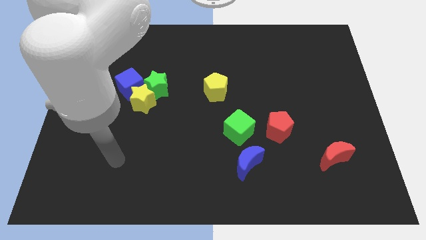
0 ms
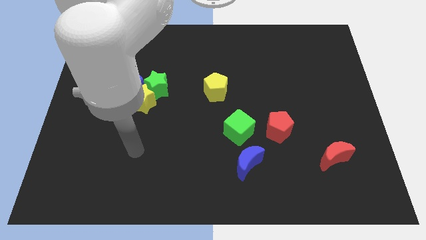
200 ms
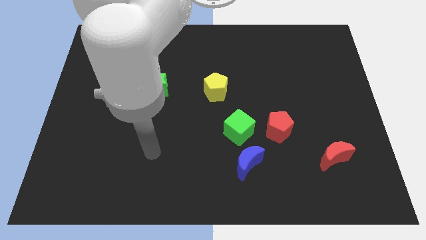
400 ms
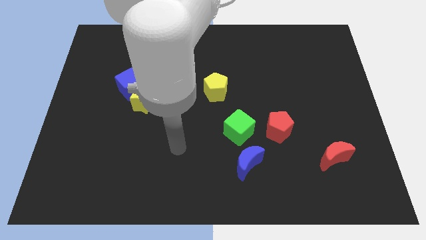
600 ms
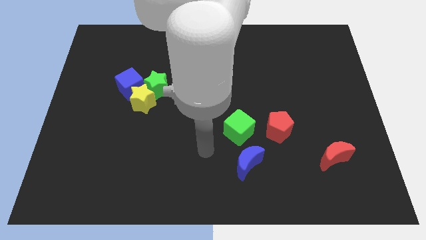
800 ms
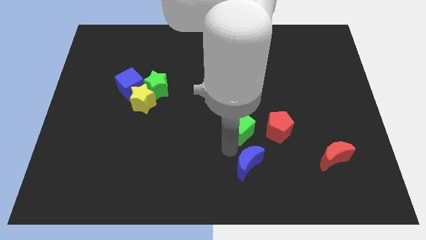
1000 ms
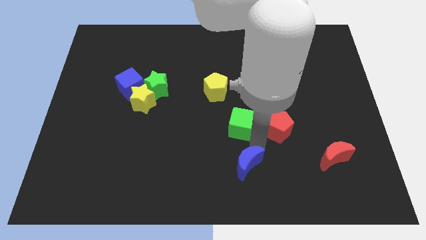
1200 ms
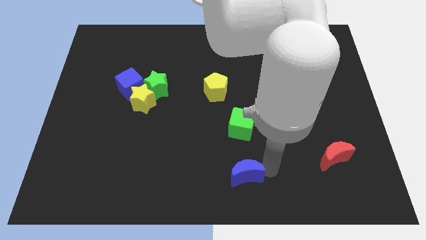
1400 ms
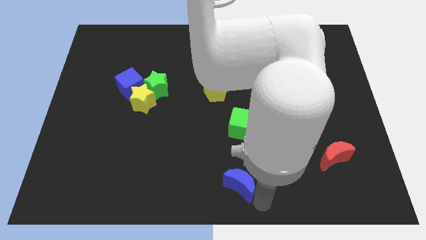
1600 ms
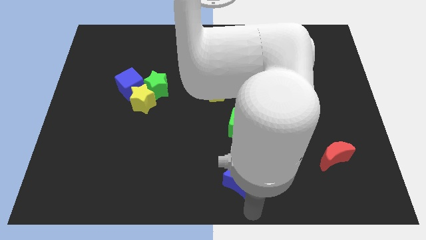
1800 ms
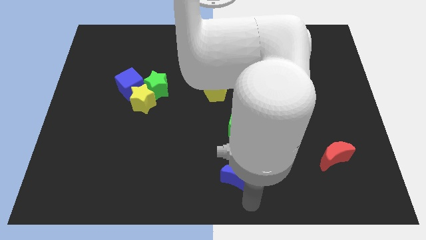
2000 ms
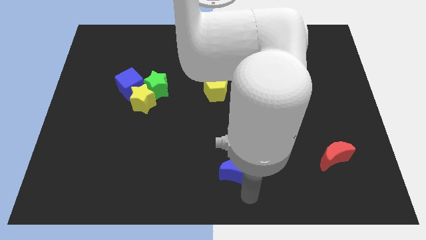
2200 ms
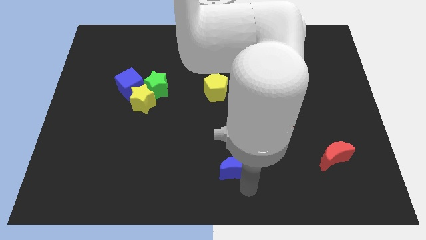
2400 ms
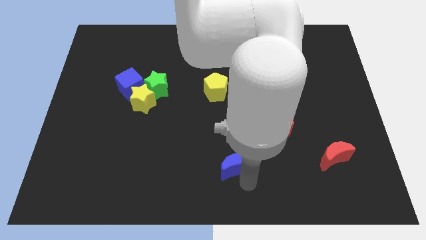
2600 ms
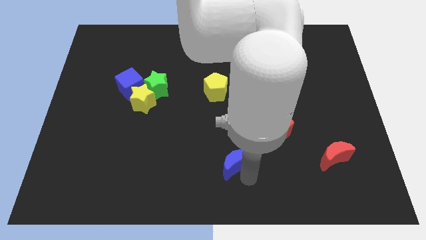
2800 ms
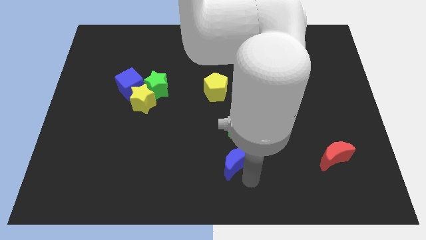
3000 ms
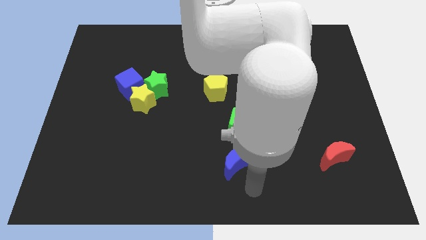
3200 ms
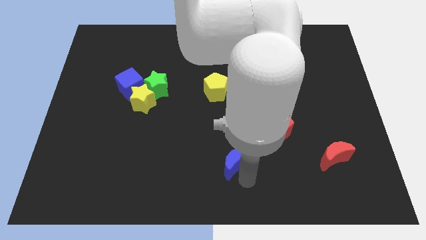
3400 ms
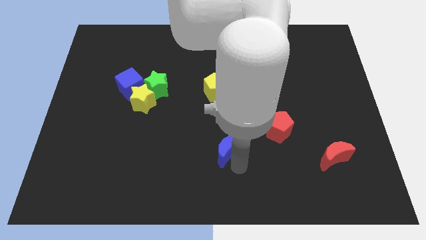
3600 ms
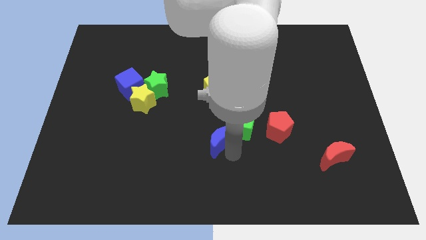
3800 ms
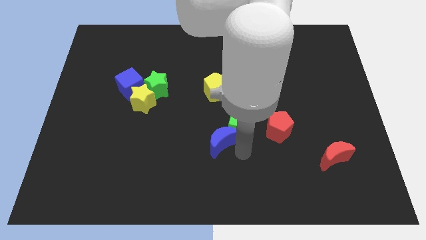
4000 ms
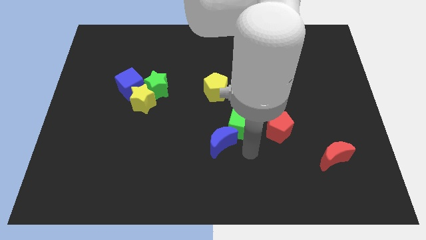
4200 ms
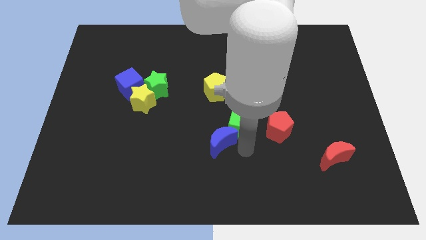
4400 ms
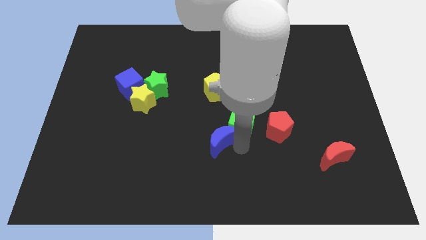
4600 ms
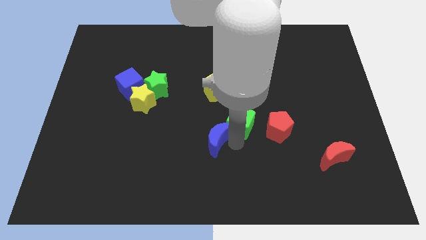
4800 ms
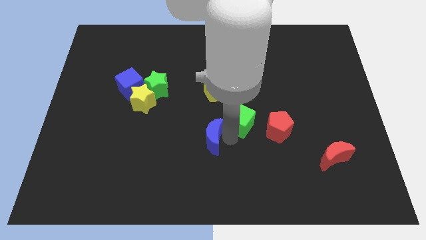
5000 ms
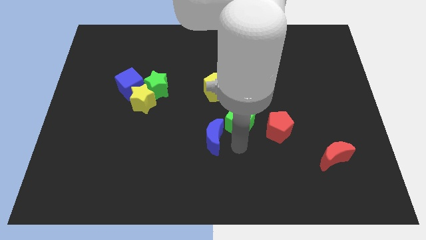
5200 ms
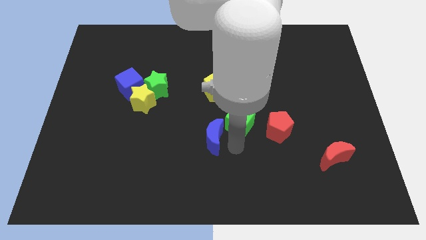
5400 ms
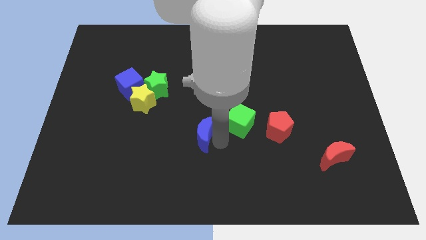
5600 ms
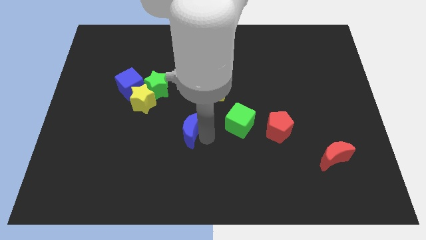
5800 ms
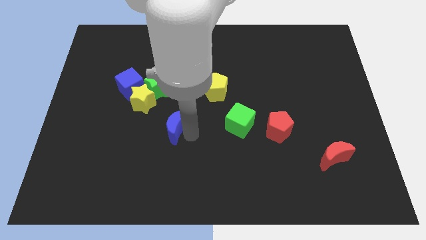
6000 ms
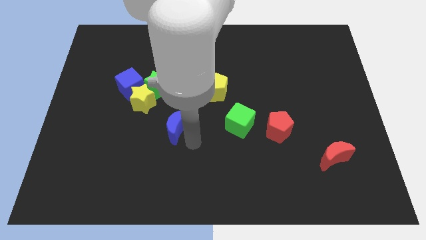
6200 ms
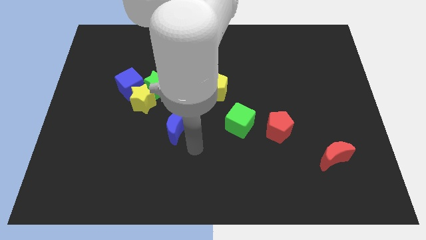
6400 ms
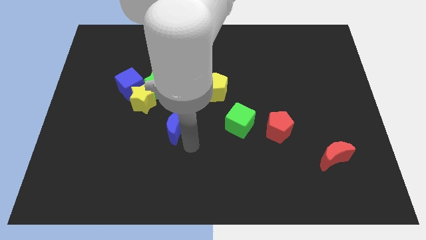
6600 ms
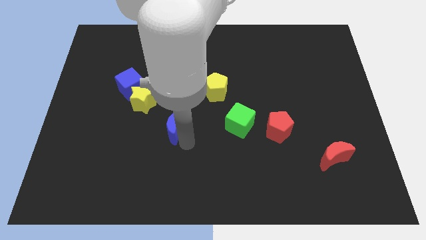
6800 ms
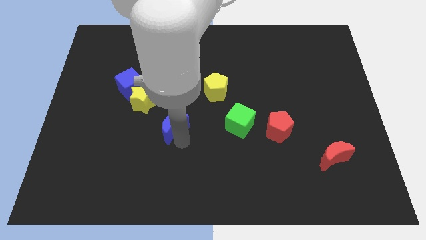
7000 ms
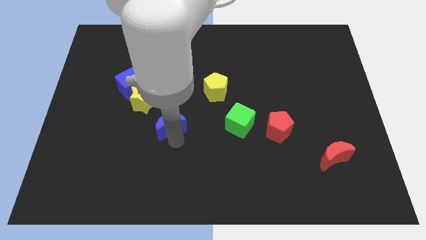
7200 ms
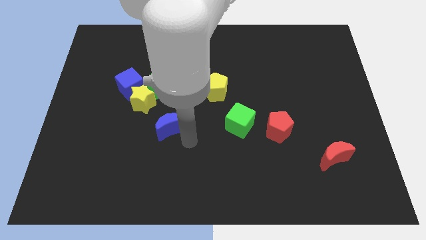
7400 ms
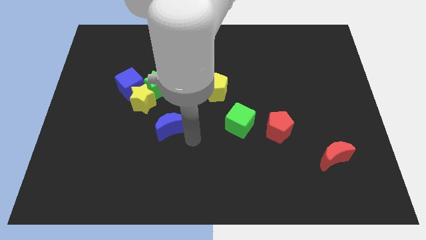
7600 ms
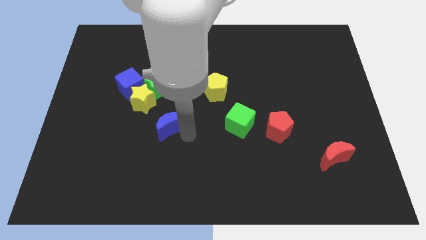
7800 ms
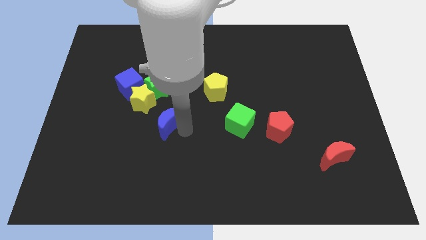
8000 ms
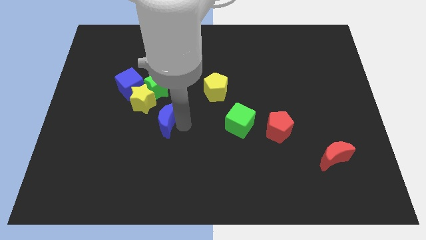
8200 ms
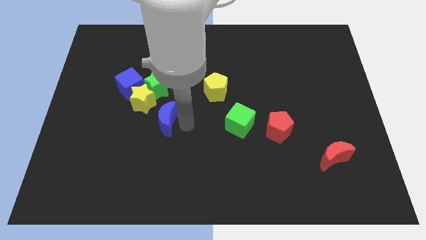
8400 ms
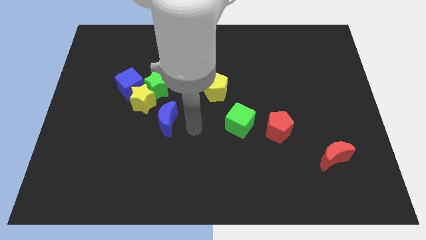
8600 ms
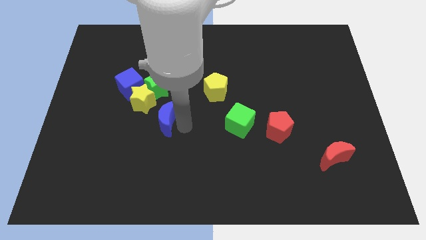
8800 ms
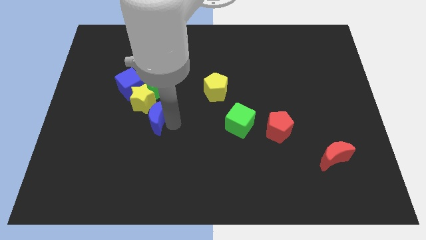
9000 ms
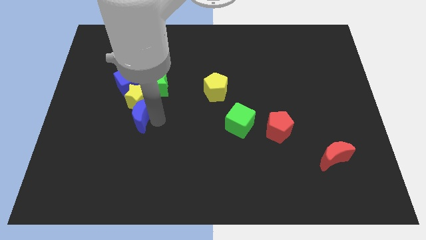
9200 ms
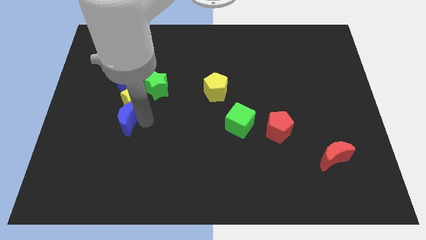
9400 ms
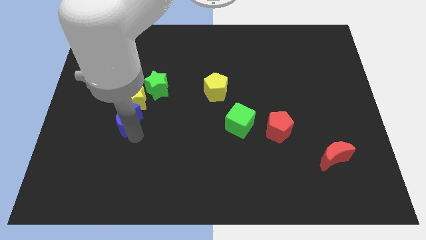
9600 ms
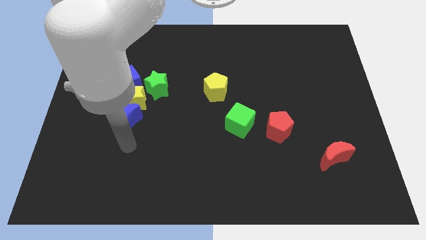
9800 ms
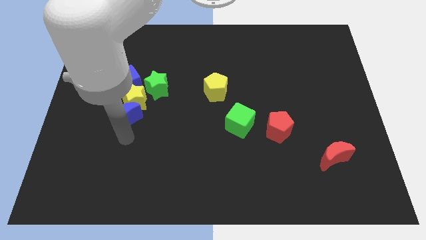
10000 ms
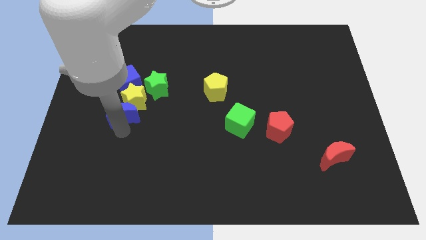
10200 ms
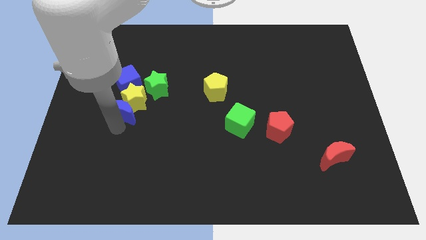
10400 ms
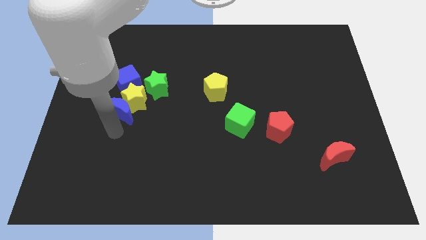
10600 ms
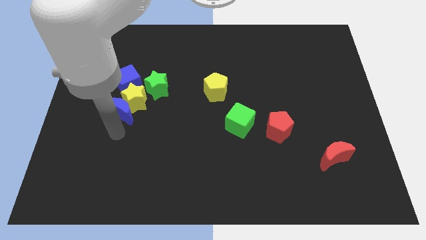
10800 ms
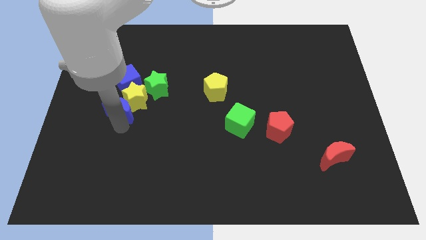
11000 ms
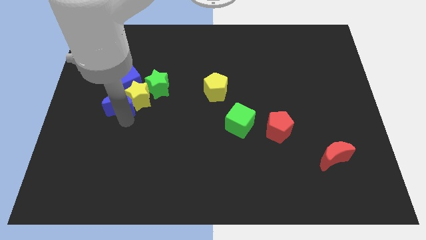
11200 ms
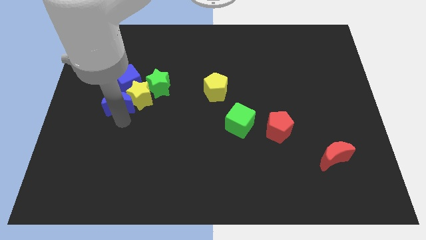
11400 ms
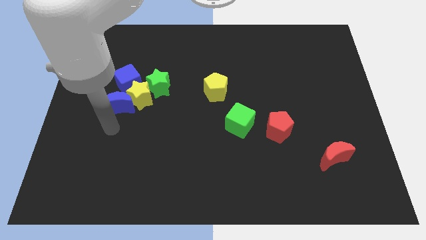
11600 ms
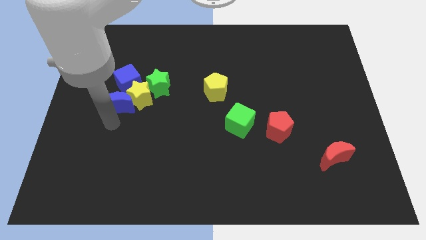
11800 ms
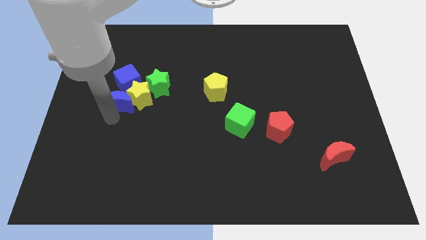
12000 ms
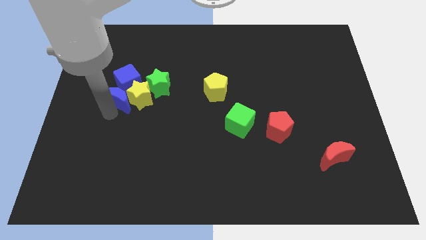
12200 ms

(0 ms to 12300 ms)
push the blue moon to the blue cube

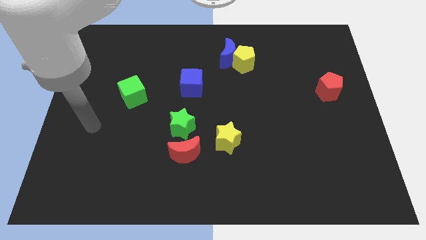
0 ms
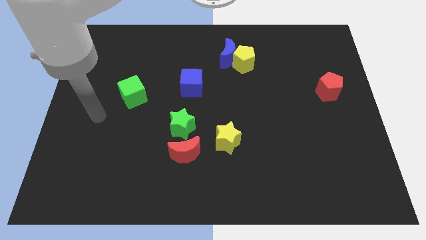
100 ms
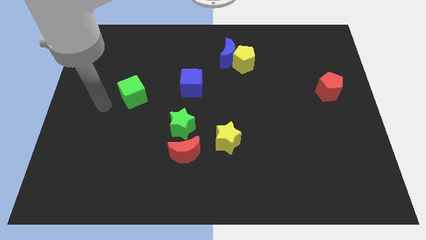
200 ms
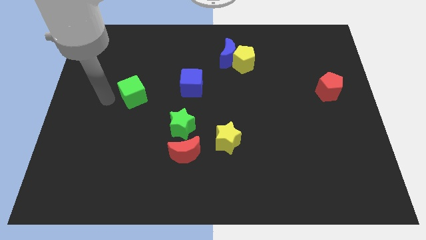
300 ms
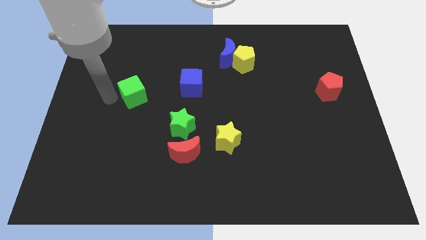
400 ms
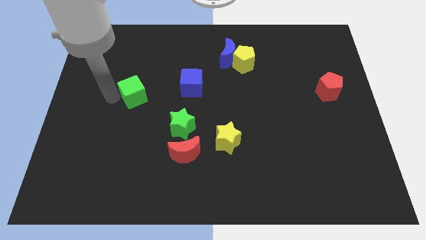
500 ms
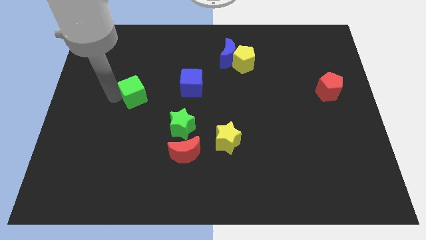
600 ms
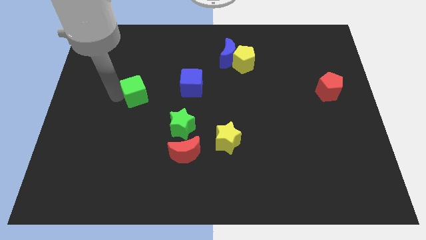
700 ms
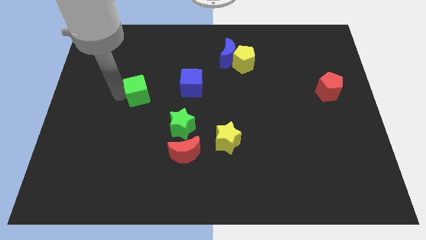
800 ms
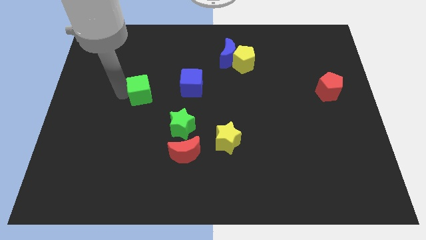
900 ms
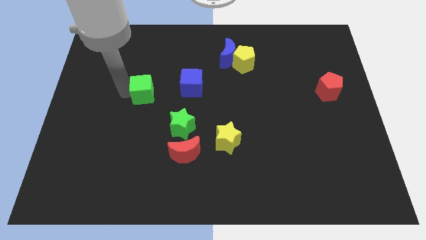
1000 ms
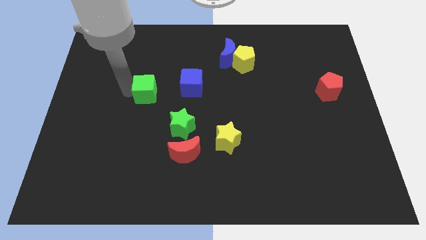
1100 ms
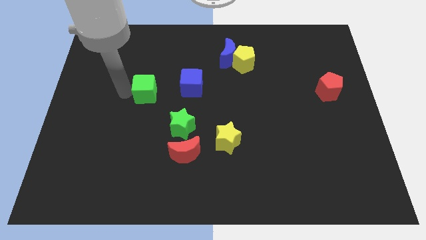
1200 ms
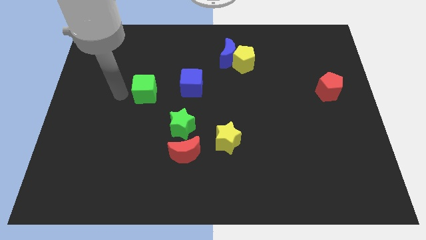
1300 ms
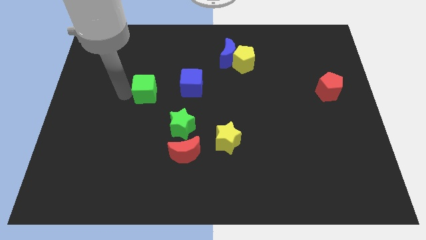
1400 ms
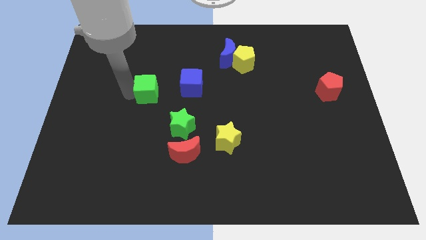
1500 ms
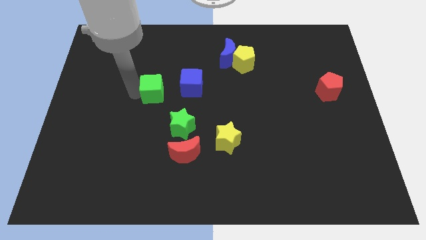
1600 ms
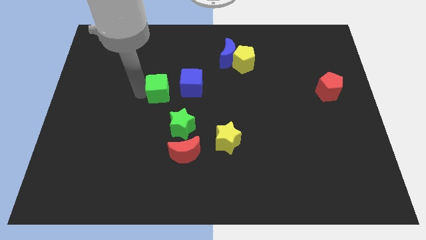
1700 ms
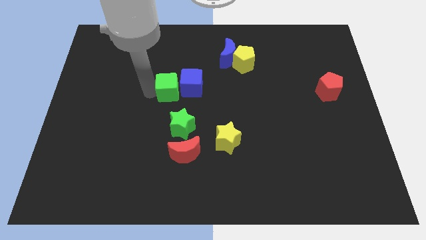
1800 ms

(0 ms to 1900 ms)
push the green cube towards the blue cube
